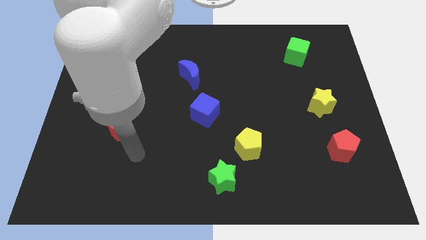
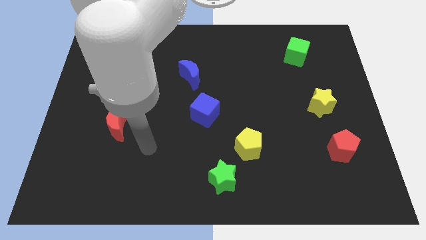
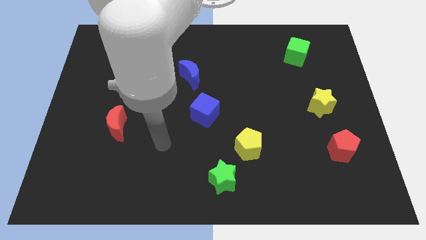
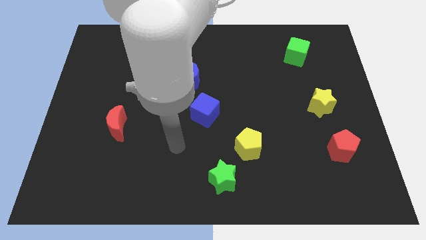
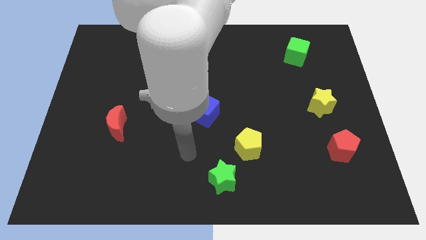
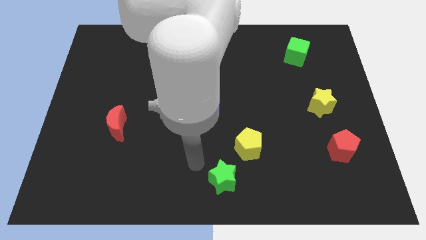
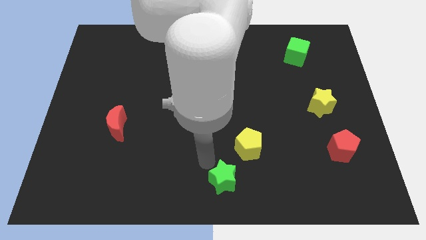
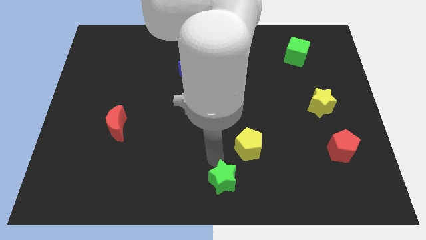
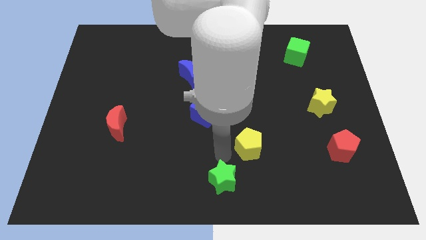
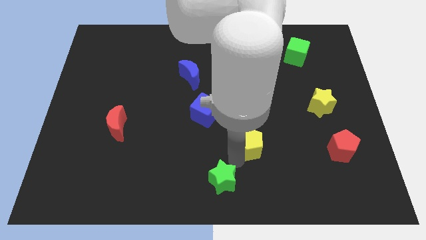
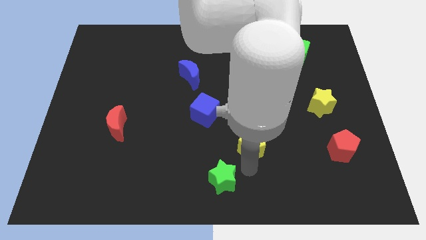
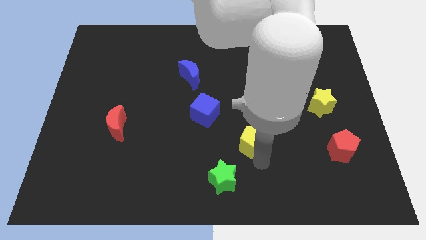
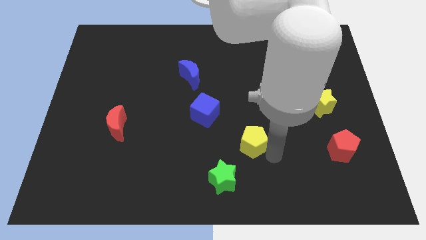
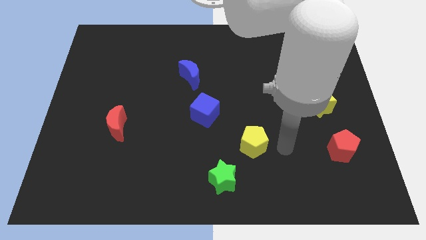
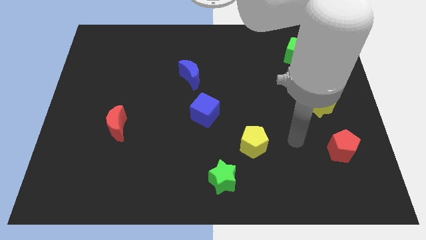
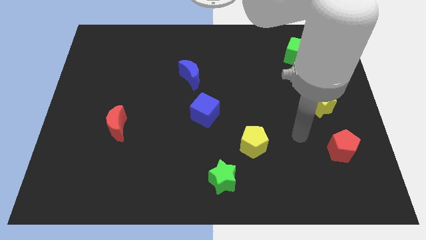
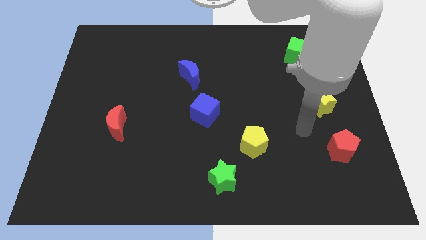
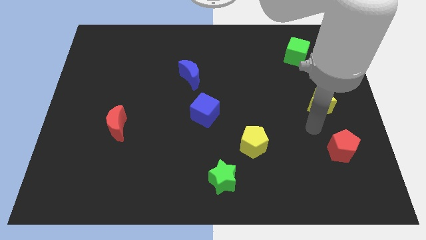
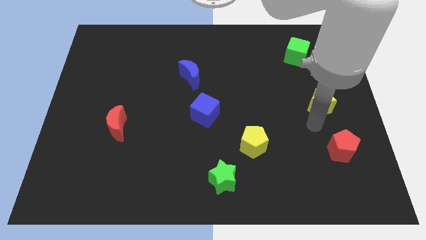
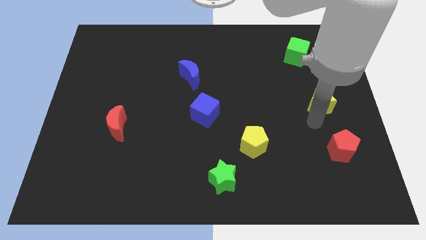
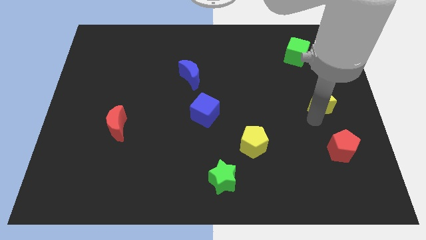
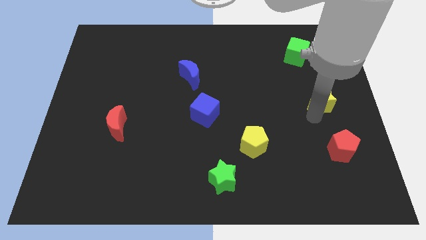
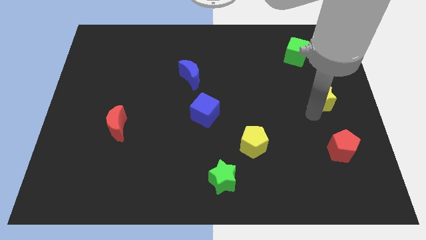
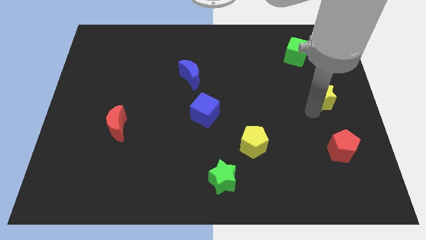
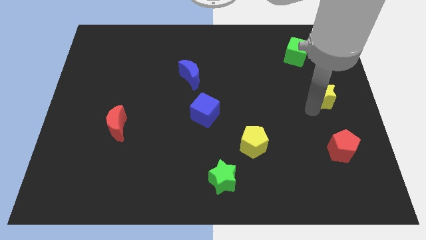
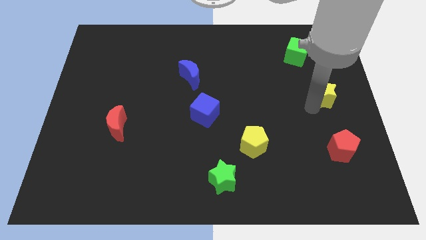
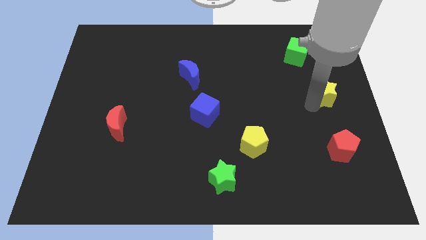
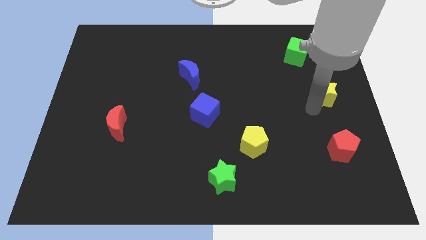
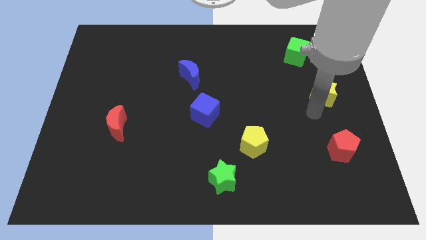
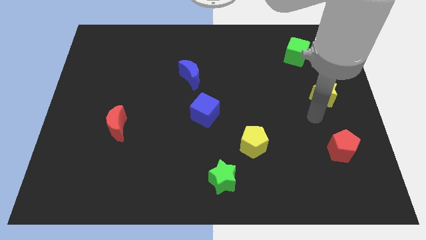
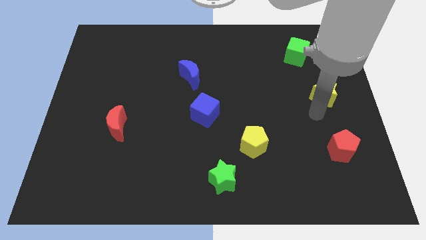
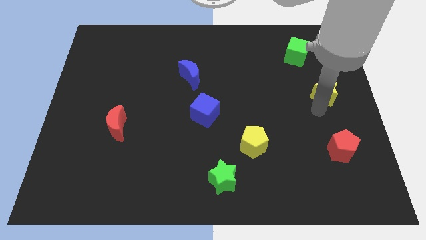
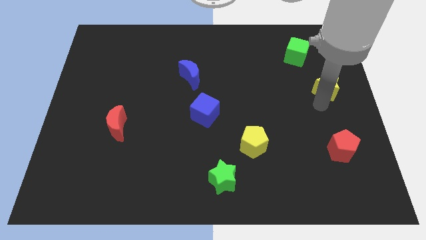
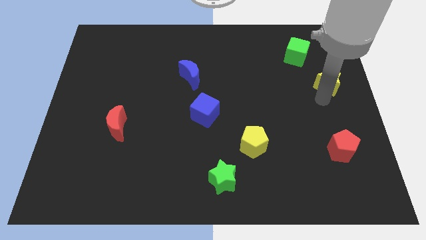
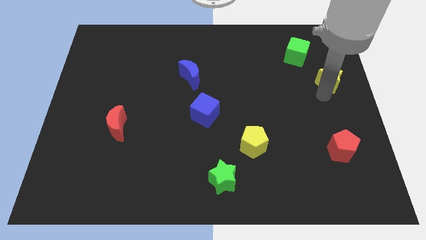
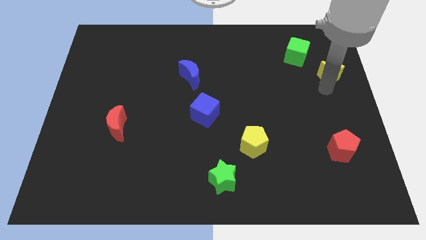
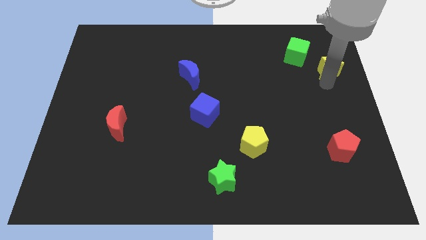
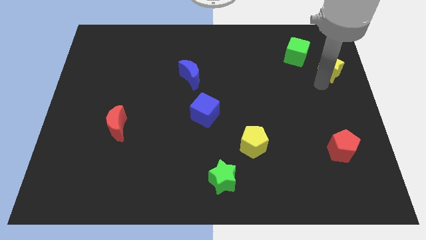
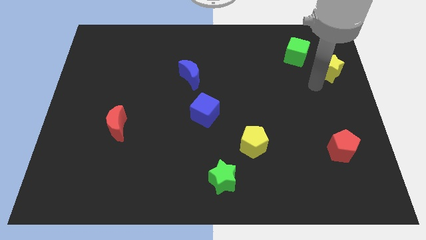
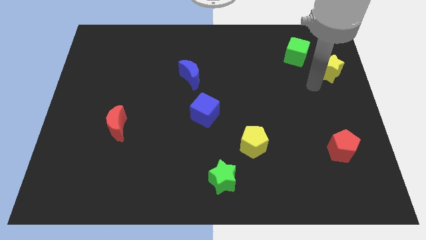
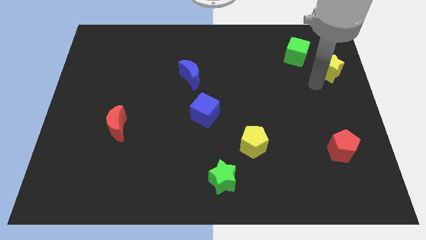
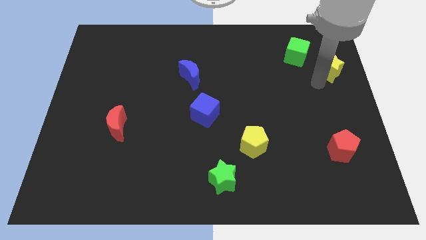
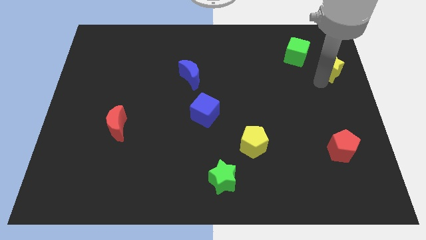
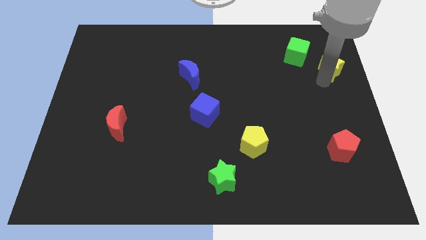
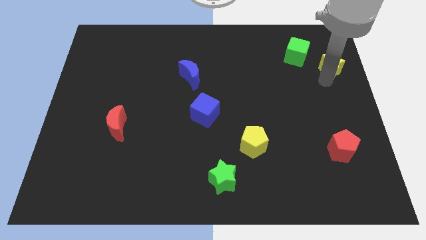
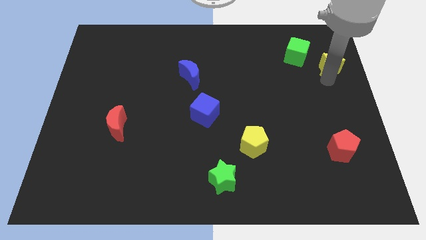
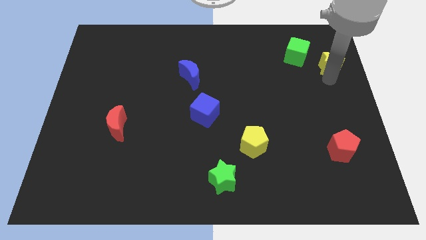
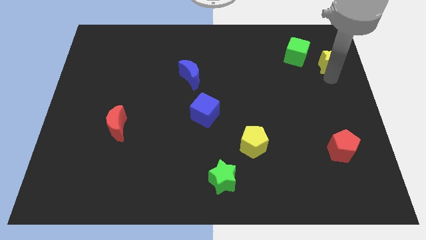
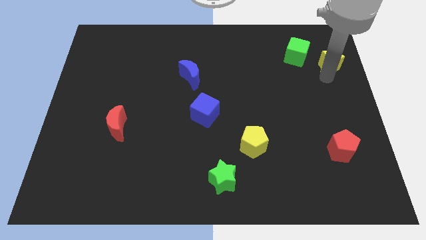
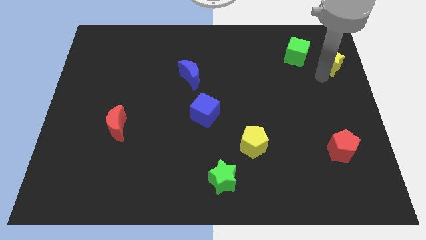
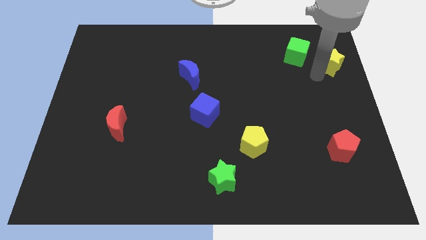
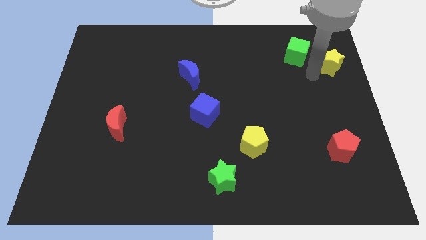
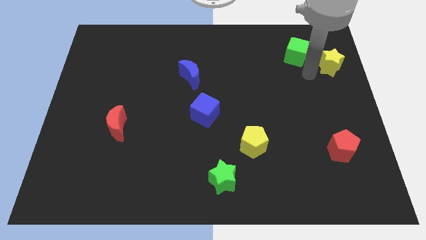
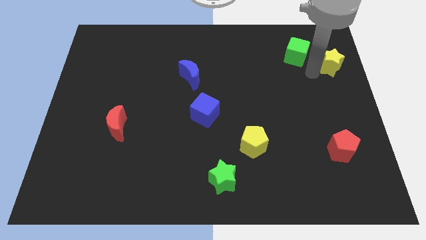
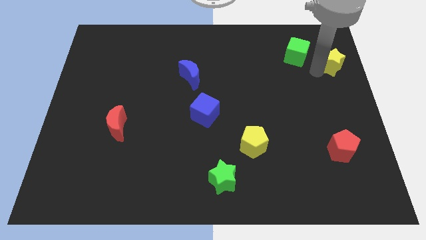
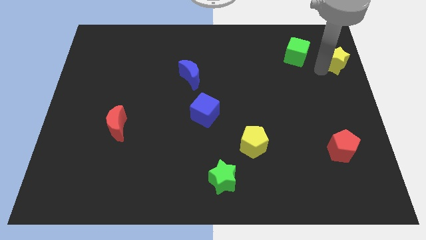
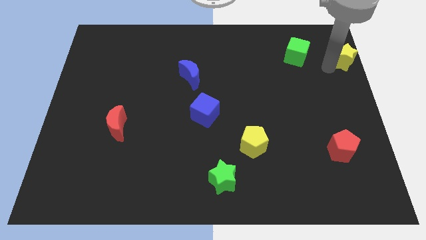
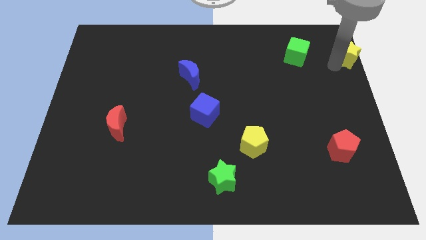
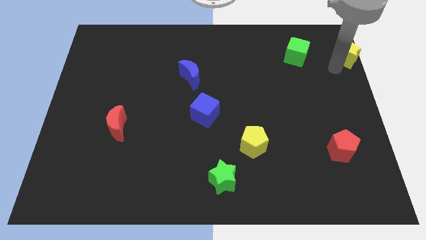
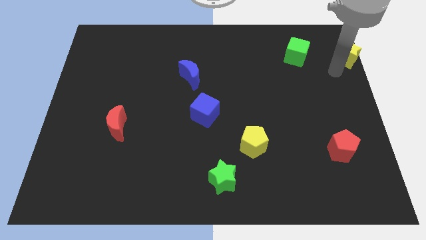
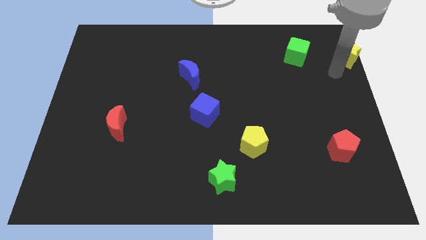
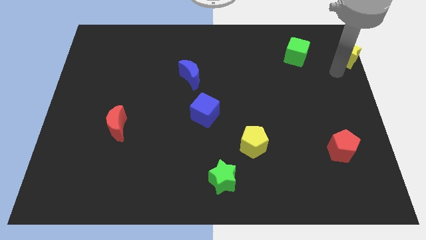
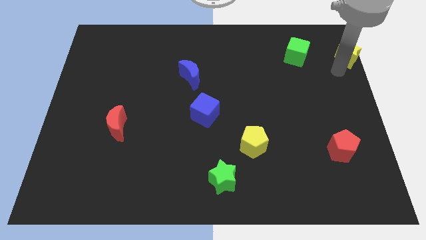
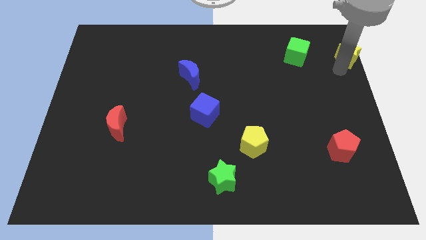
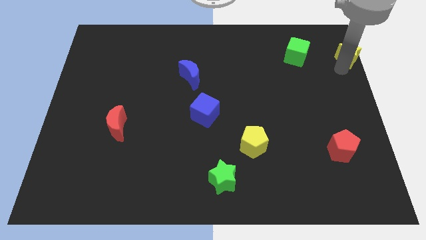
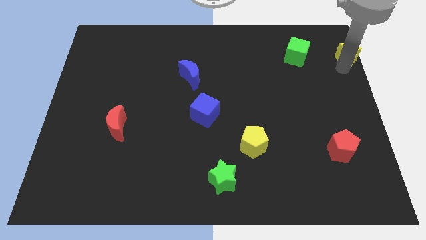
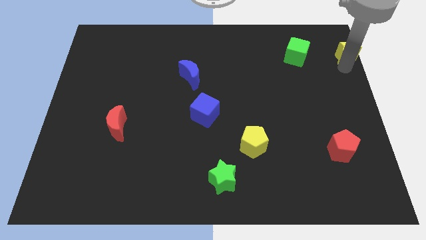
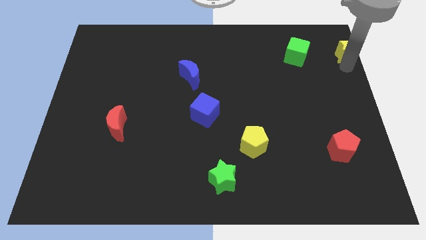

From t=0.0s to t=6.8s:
slide the yellow star to the top right

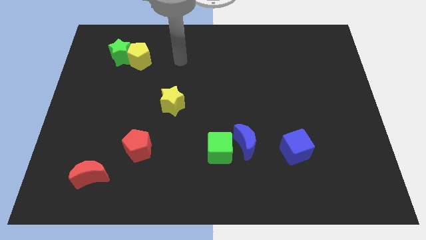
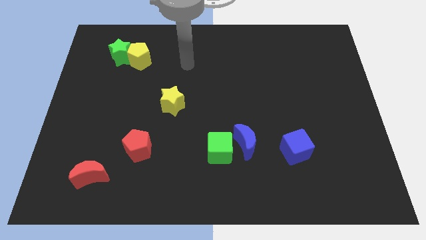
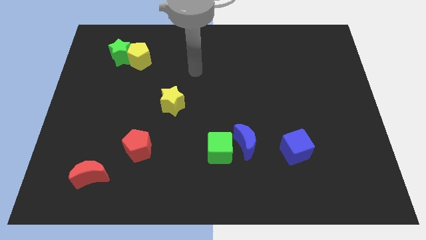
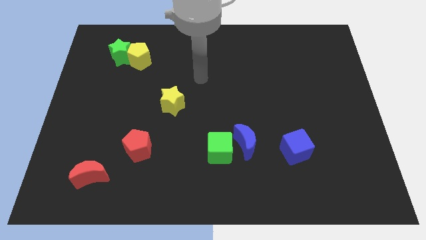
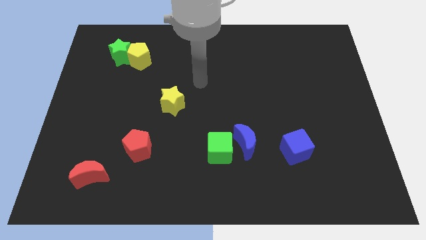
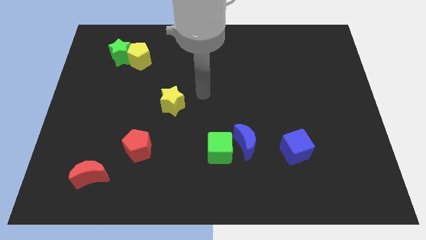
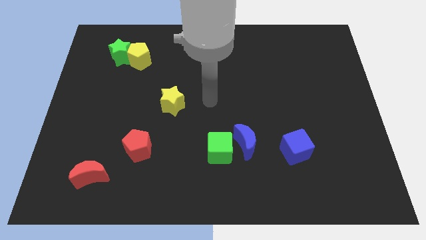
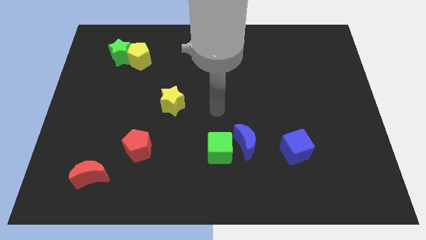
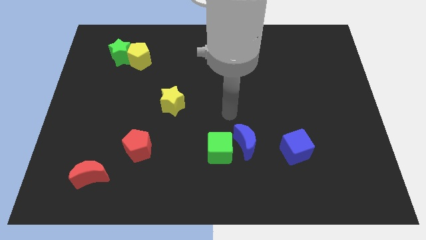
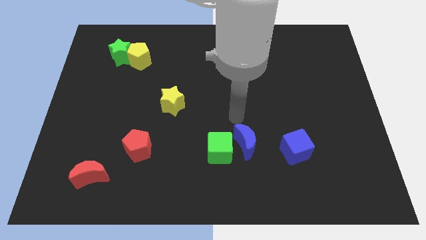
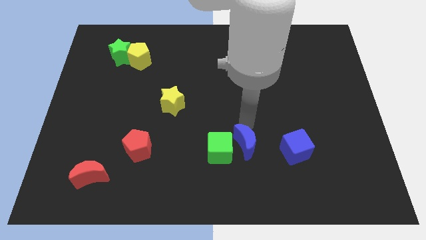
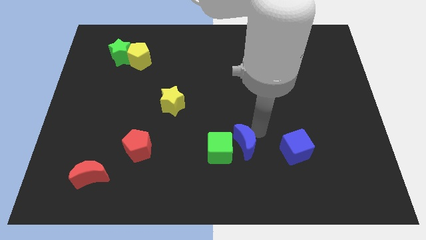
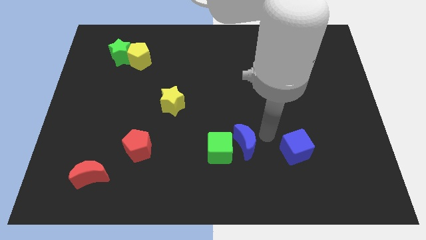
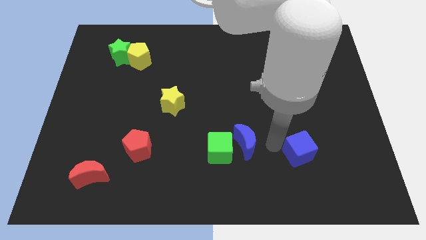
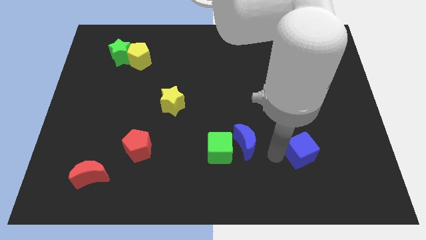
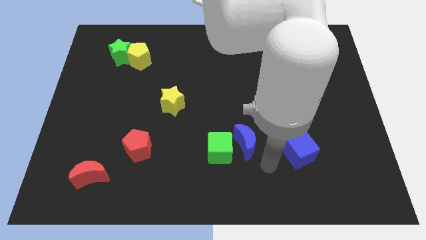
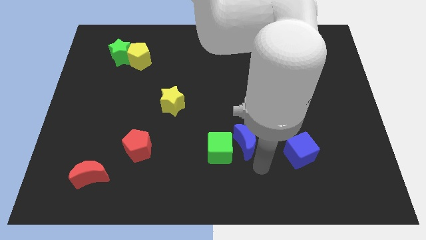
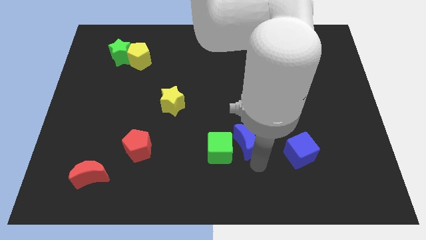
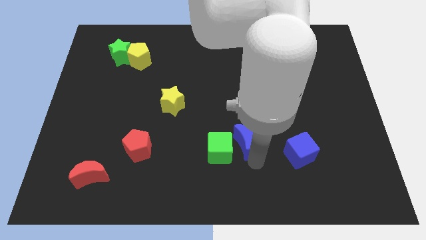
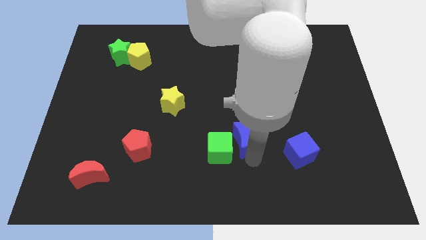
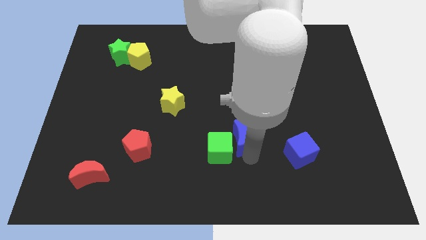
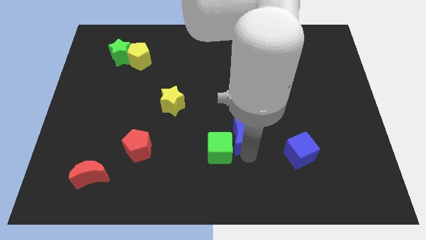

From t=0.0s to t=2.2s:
move the blue moon to the middle

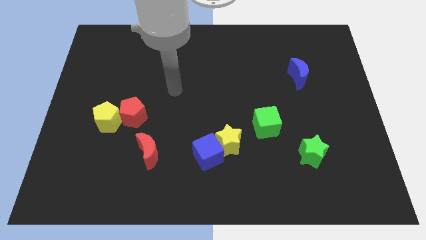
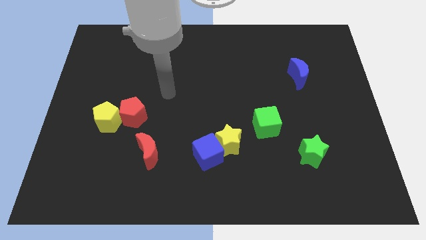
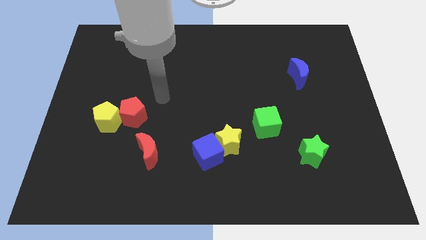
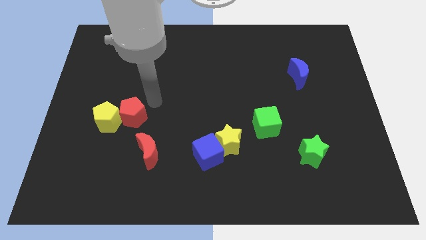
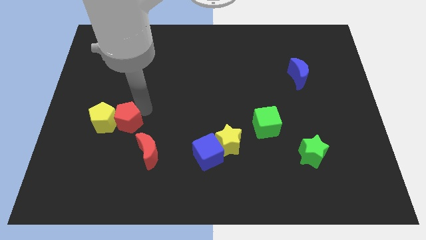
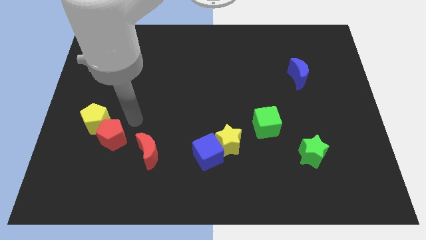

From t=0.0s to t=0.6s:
put the yellow pentagon to the center left
